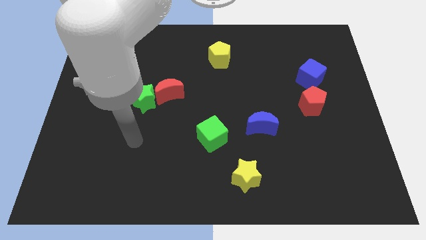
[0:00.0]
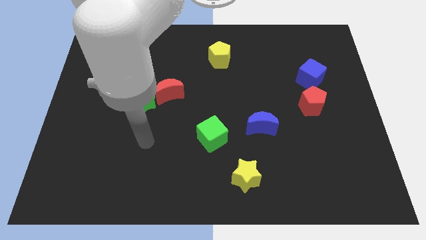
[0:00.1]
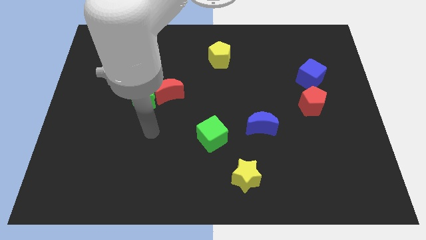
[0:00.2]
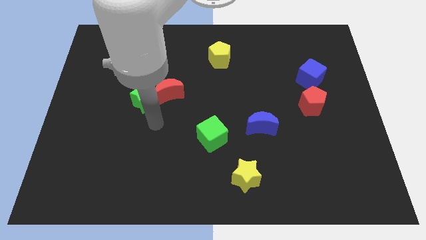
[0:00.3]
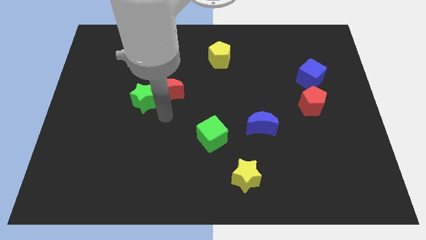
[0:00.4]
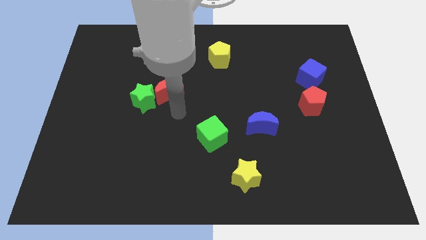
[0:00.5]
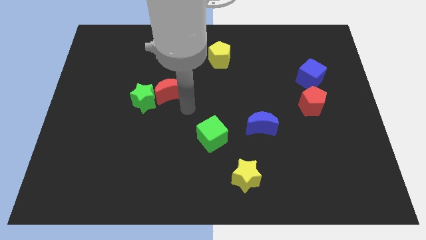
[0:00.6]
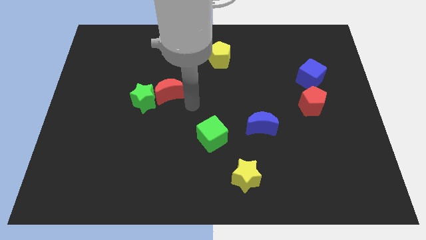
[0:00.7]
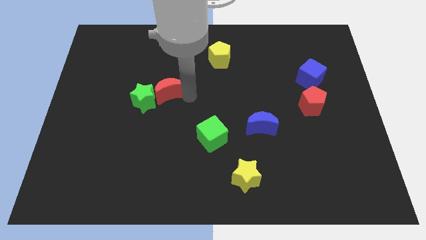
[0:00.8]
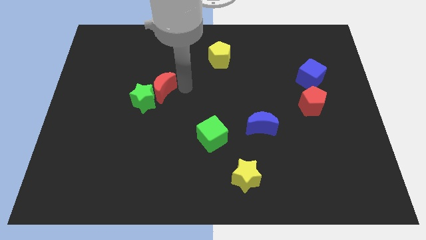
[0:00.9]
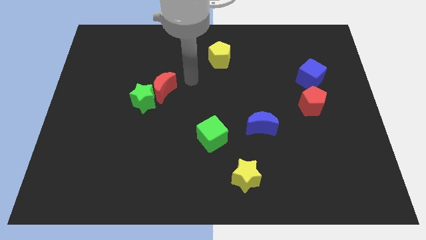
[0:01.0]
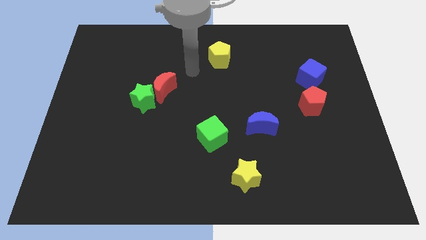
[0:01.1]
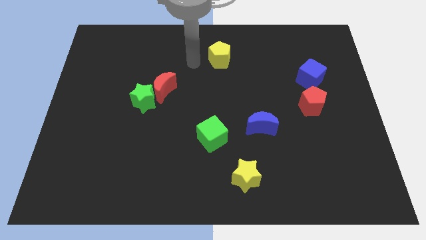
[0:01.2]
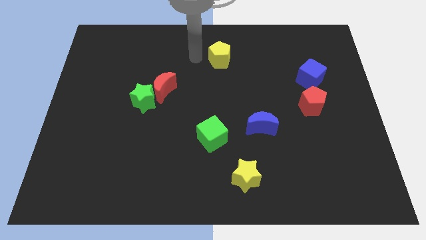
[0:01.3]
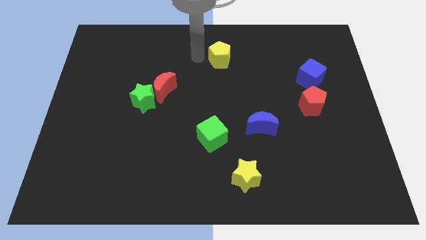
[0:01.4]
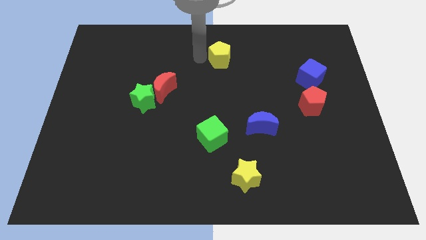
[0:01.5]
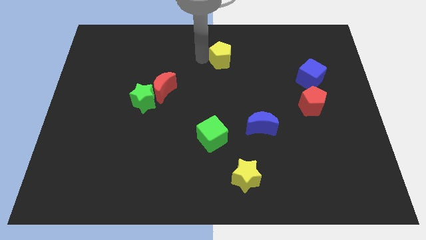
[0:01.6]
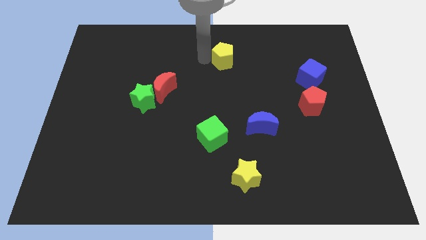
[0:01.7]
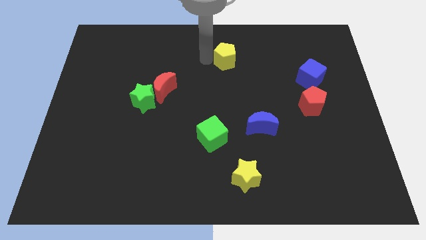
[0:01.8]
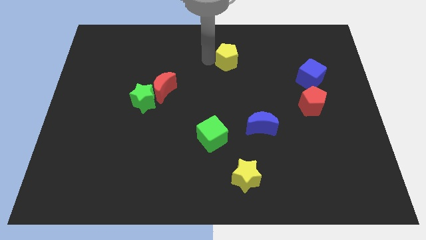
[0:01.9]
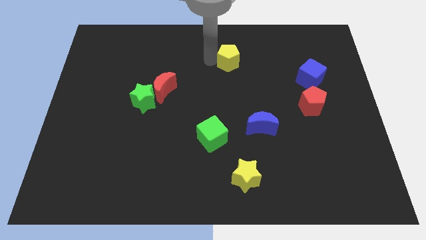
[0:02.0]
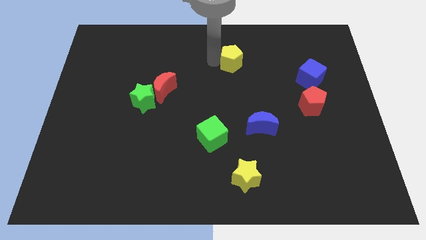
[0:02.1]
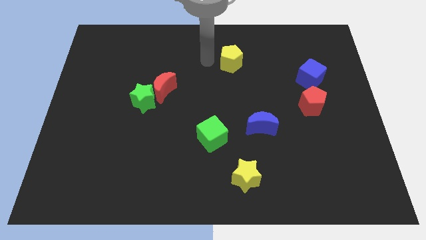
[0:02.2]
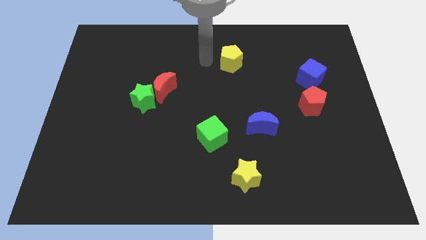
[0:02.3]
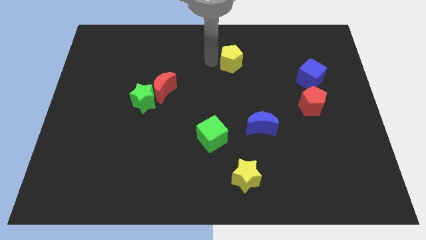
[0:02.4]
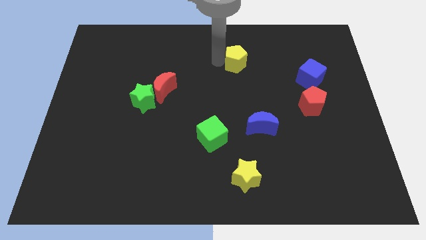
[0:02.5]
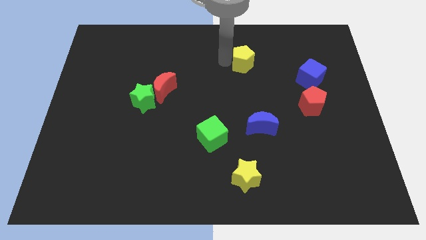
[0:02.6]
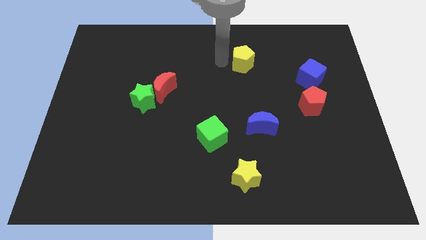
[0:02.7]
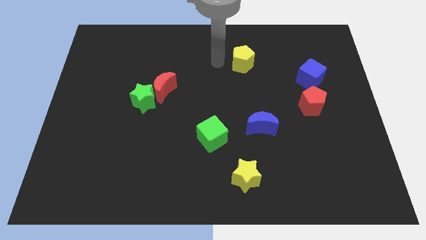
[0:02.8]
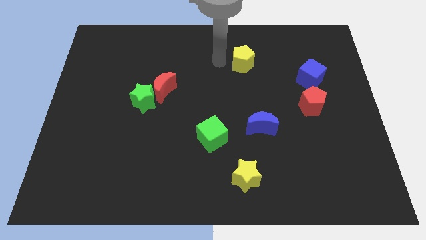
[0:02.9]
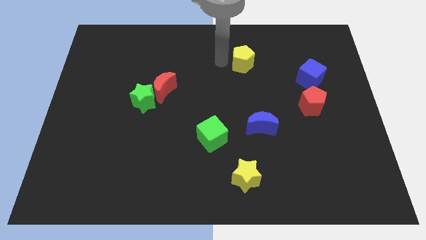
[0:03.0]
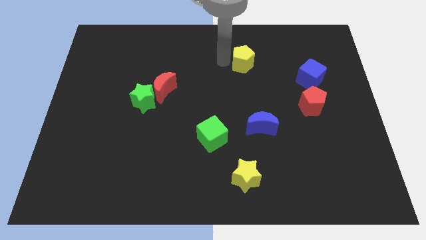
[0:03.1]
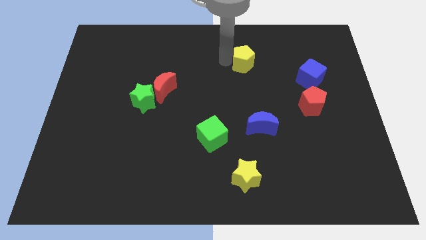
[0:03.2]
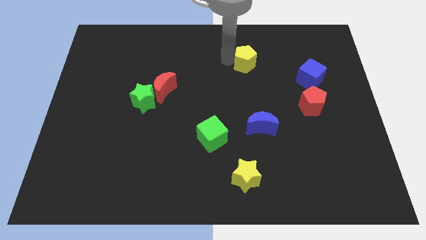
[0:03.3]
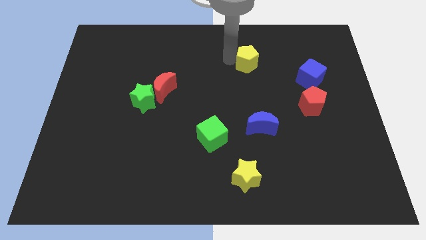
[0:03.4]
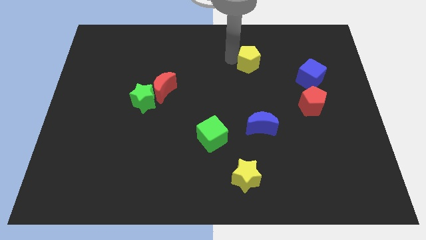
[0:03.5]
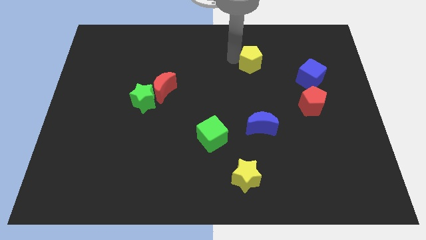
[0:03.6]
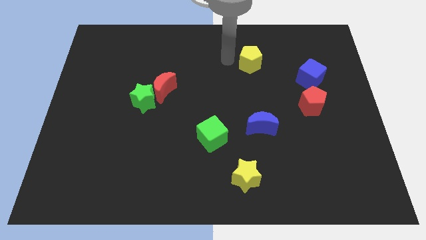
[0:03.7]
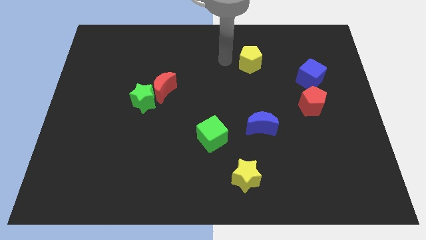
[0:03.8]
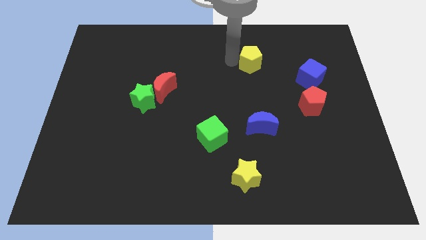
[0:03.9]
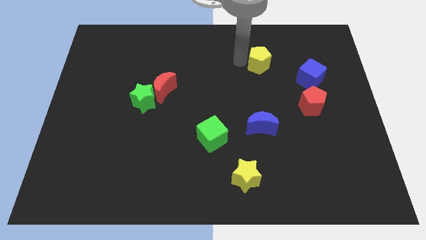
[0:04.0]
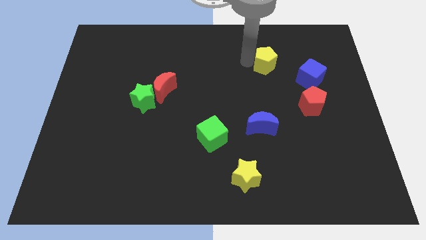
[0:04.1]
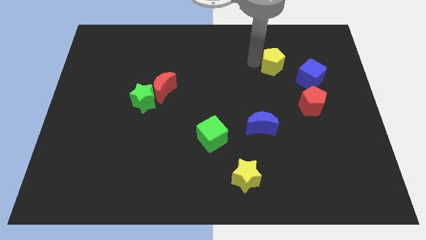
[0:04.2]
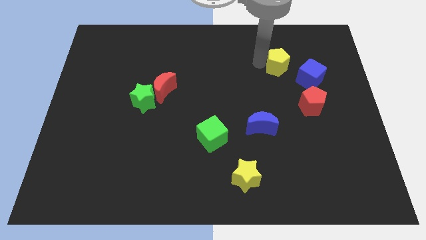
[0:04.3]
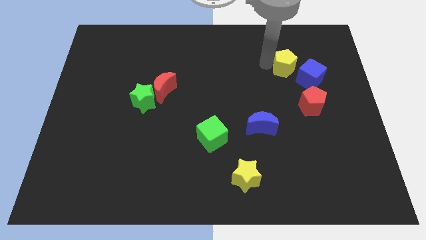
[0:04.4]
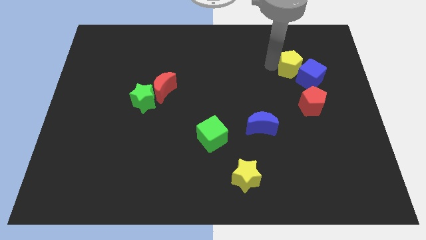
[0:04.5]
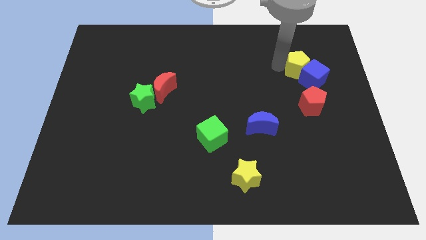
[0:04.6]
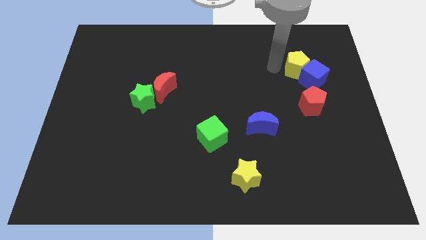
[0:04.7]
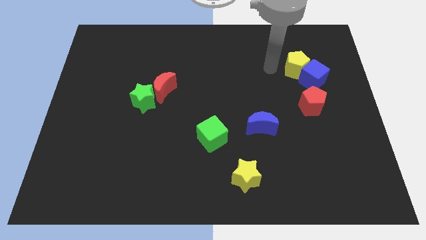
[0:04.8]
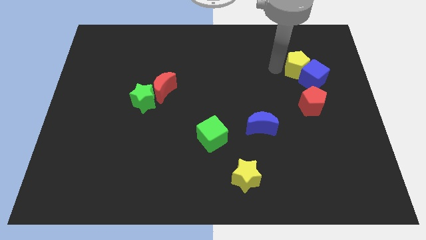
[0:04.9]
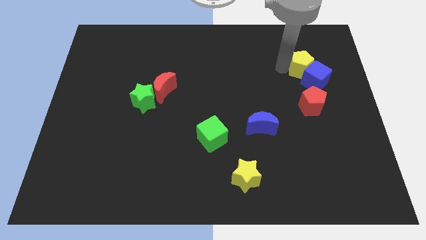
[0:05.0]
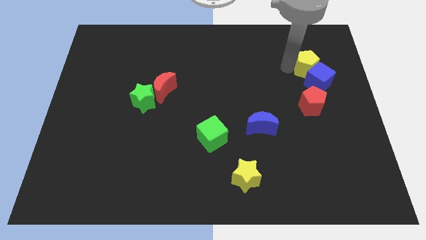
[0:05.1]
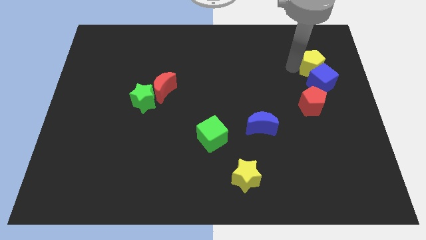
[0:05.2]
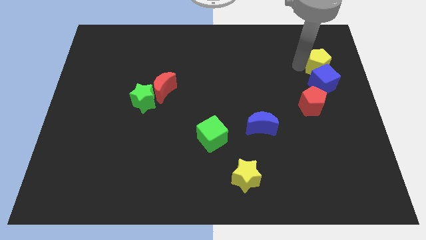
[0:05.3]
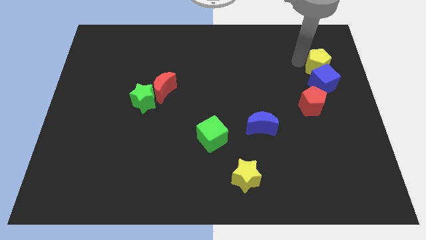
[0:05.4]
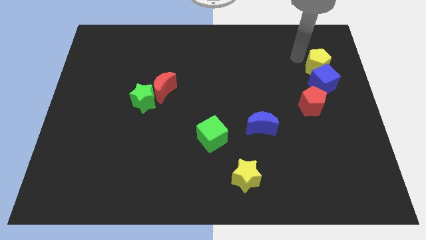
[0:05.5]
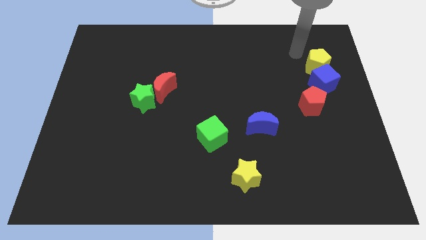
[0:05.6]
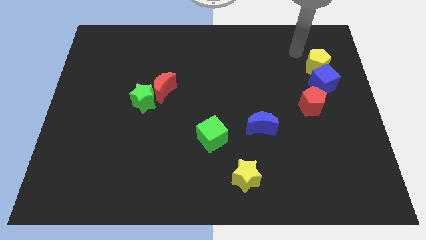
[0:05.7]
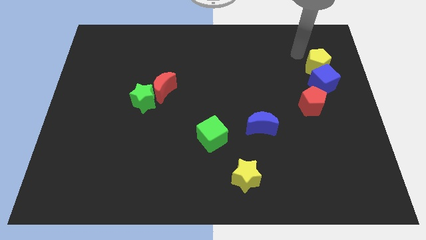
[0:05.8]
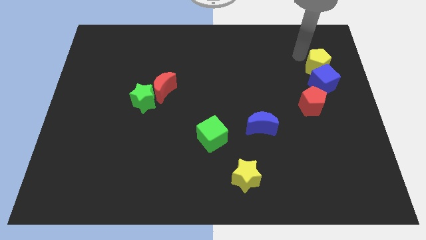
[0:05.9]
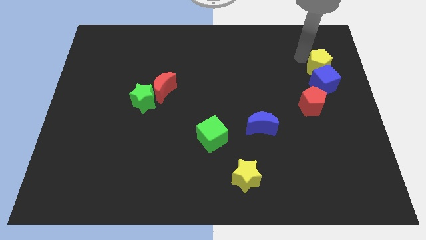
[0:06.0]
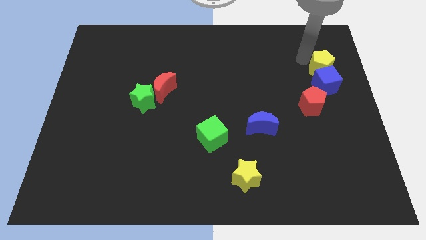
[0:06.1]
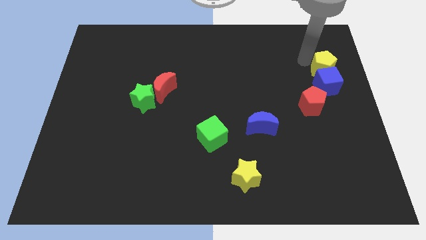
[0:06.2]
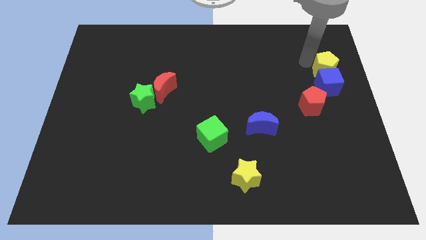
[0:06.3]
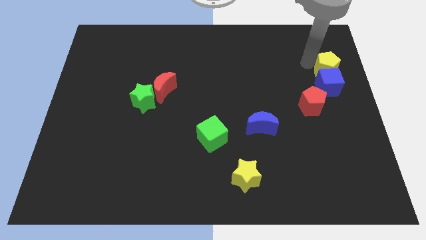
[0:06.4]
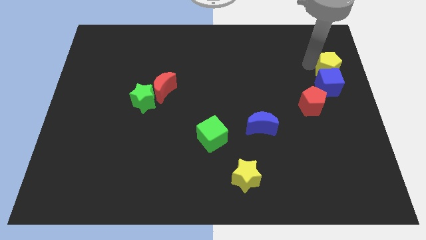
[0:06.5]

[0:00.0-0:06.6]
push the yellow pentagon to the center right
